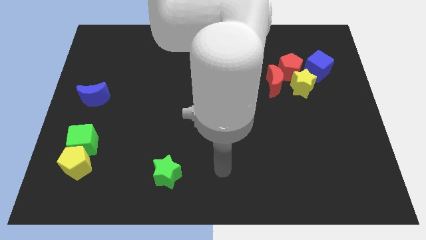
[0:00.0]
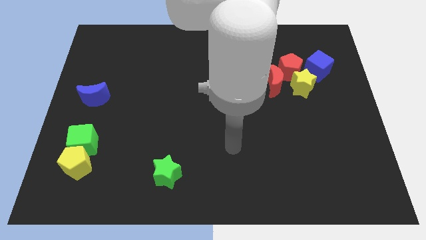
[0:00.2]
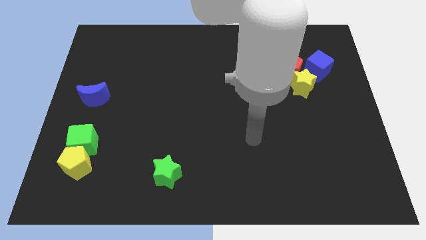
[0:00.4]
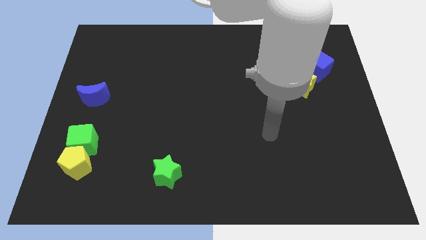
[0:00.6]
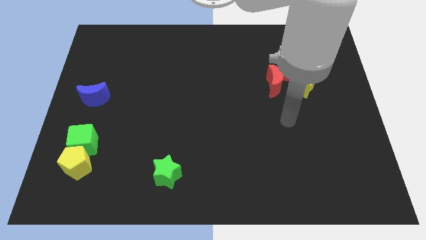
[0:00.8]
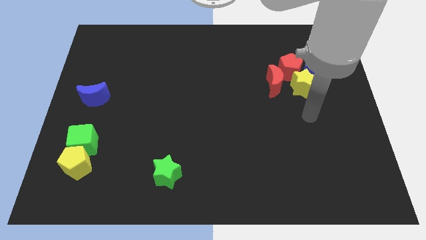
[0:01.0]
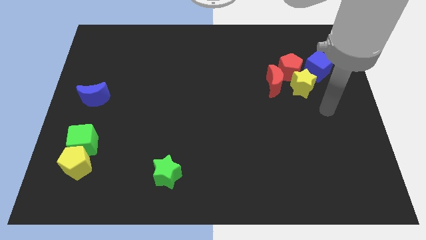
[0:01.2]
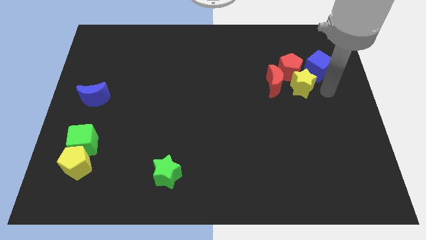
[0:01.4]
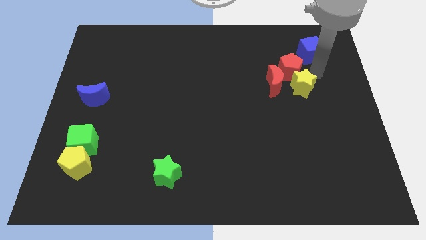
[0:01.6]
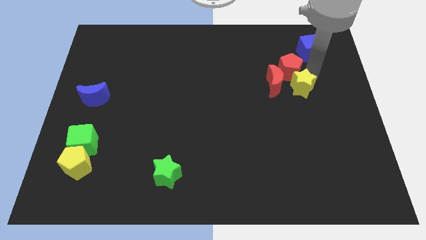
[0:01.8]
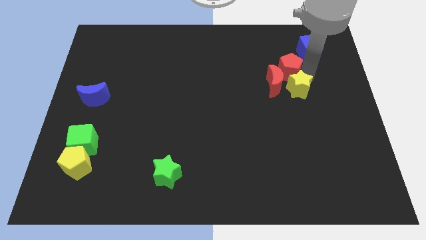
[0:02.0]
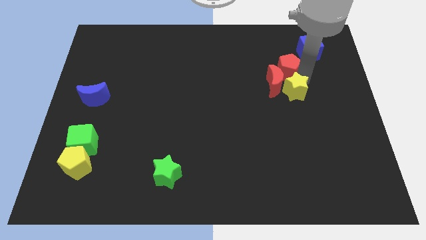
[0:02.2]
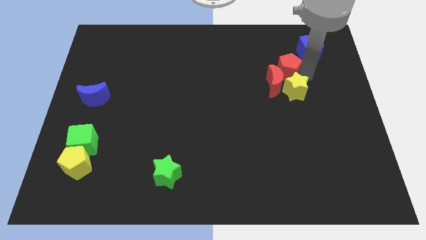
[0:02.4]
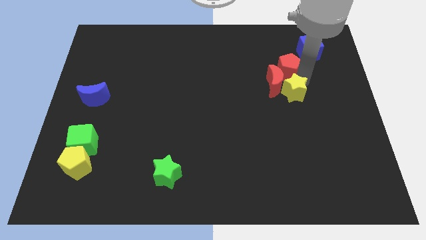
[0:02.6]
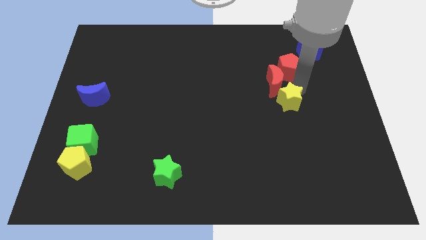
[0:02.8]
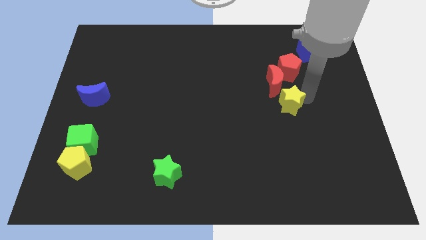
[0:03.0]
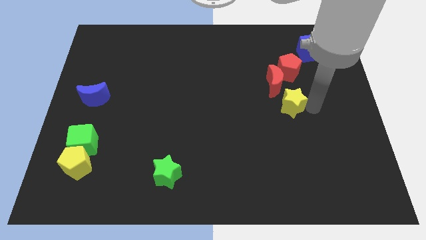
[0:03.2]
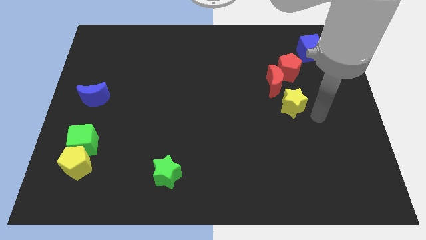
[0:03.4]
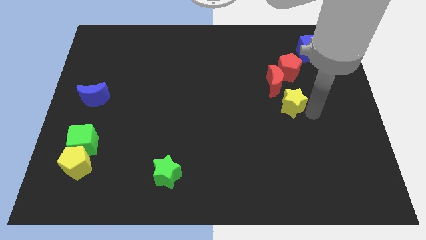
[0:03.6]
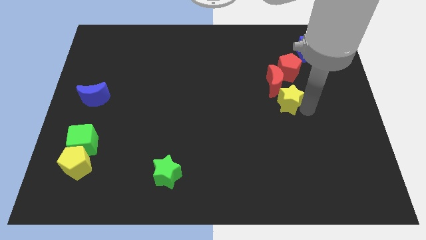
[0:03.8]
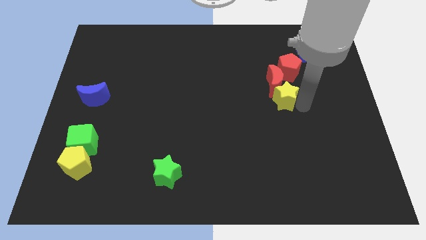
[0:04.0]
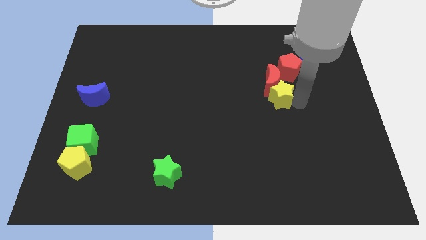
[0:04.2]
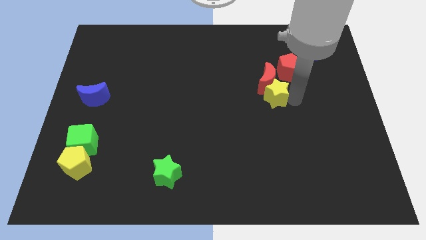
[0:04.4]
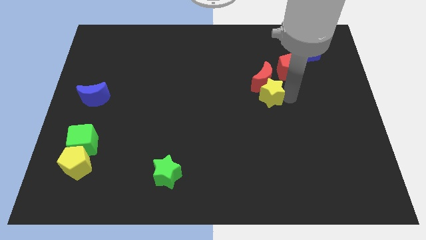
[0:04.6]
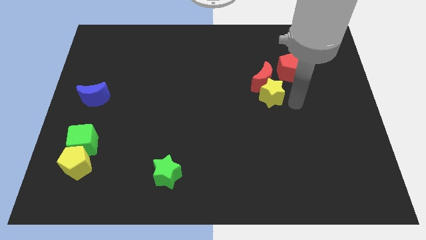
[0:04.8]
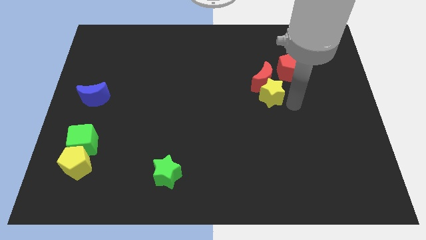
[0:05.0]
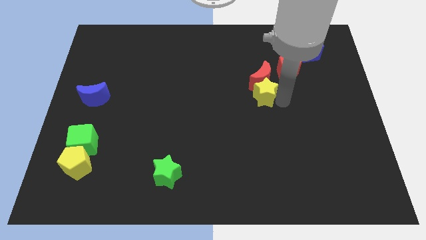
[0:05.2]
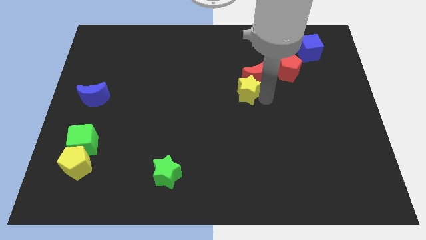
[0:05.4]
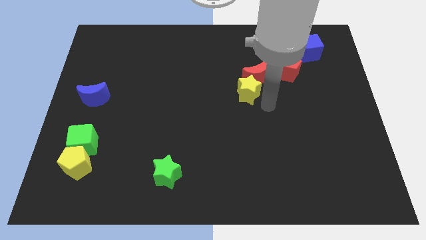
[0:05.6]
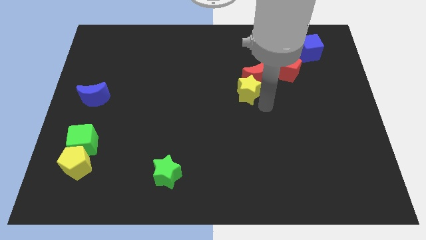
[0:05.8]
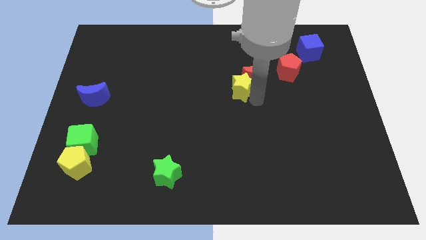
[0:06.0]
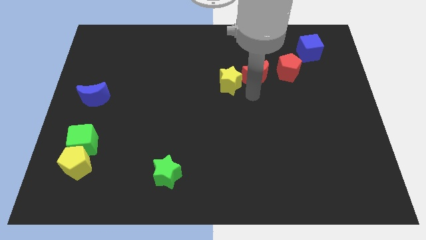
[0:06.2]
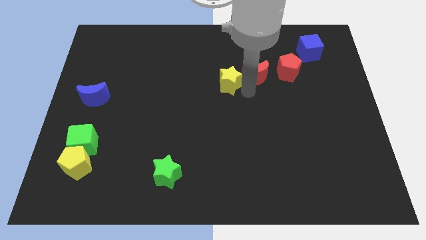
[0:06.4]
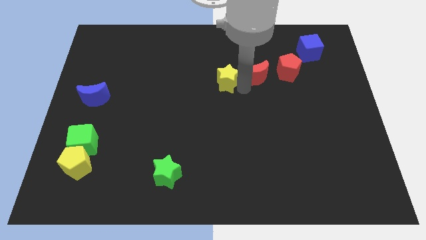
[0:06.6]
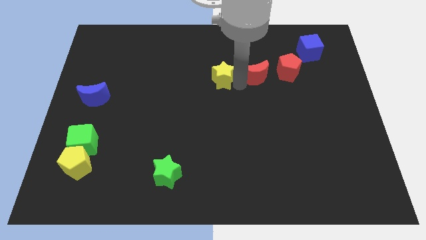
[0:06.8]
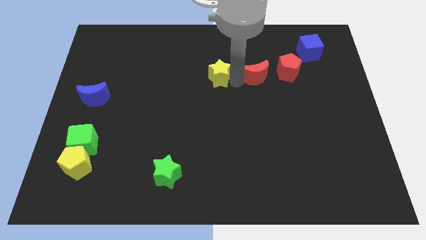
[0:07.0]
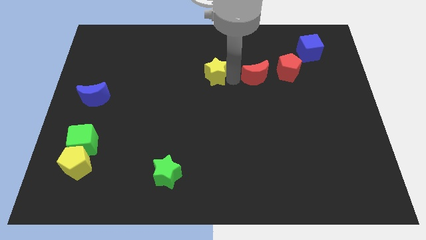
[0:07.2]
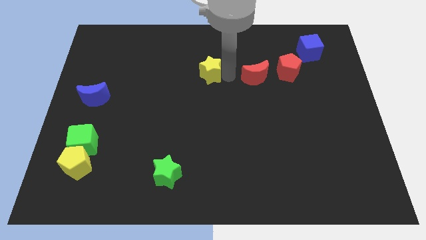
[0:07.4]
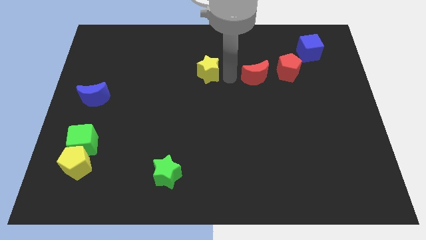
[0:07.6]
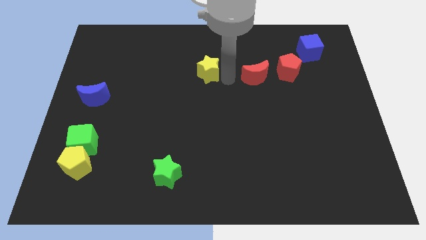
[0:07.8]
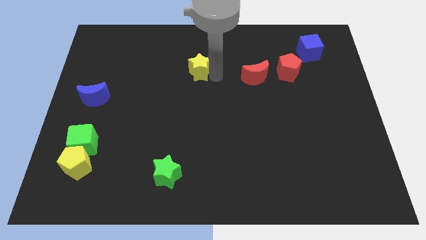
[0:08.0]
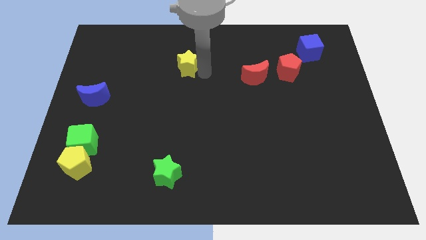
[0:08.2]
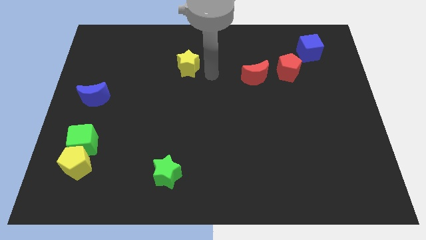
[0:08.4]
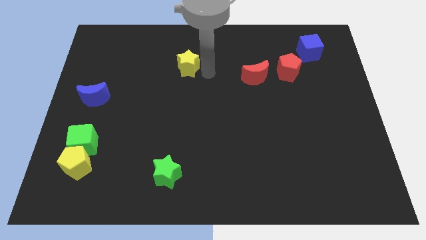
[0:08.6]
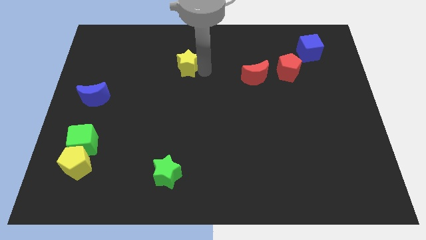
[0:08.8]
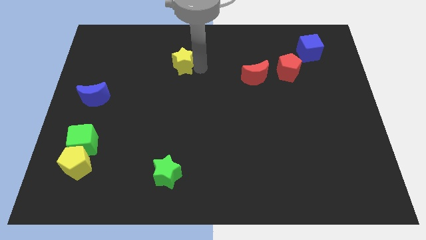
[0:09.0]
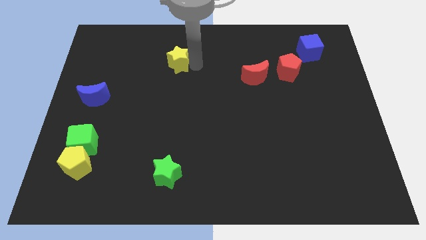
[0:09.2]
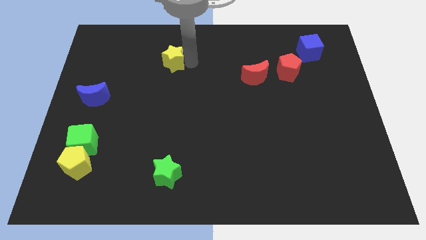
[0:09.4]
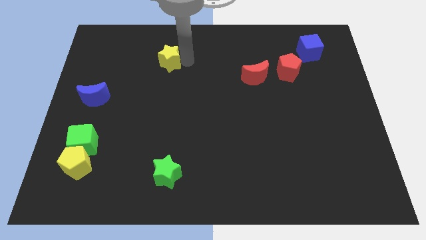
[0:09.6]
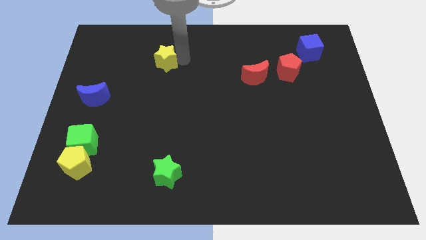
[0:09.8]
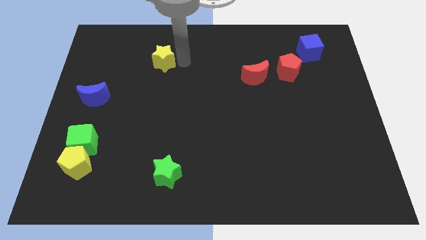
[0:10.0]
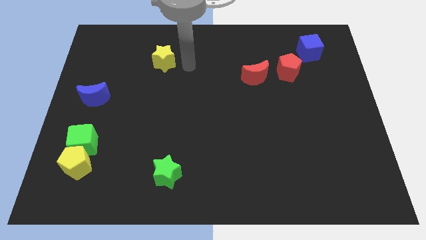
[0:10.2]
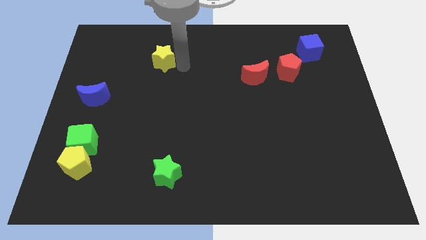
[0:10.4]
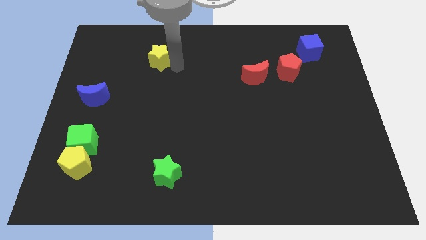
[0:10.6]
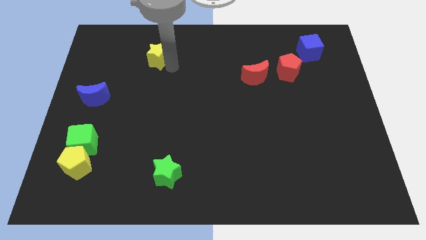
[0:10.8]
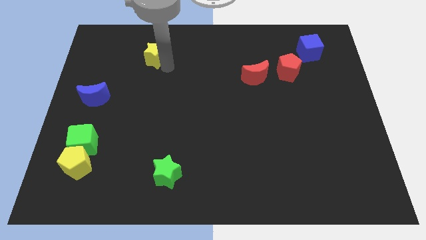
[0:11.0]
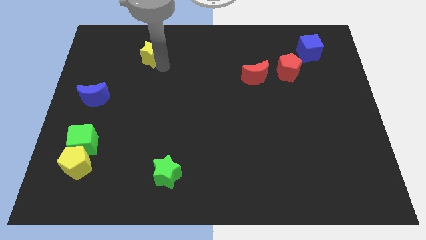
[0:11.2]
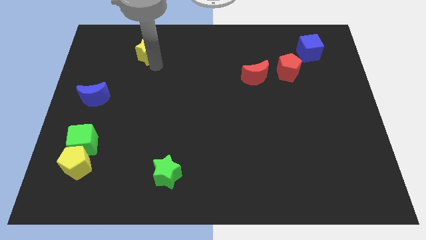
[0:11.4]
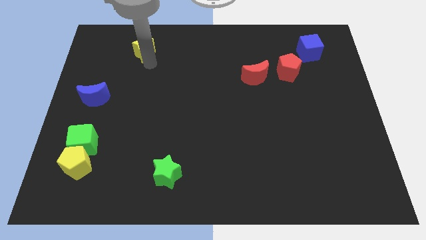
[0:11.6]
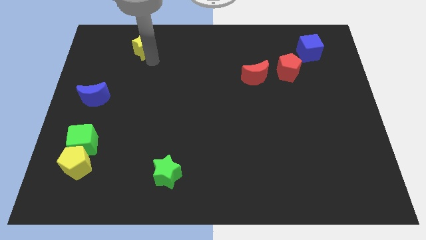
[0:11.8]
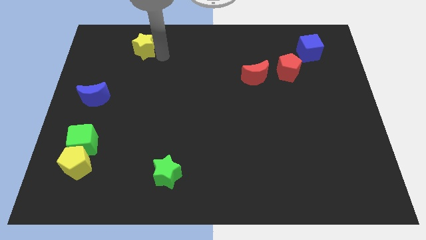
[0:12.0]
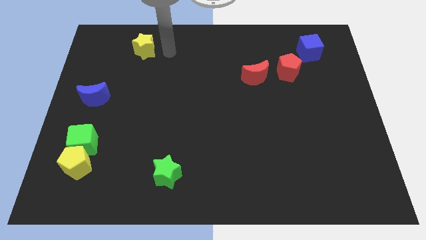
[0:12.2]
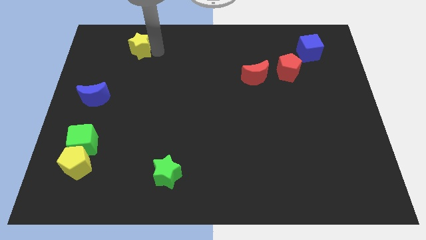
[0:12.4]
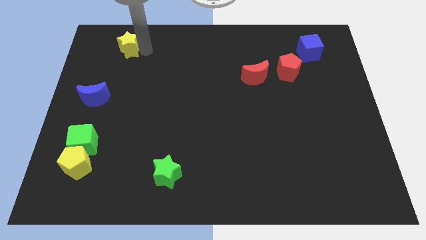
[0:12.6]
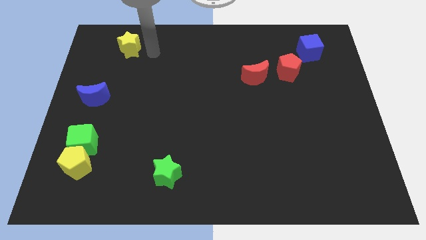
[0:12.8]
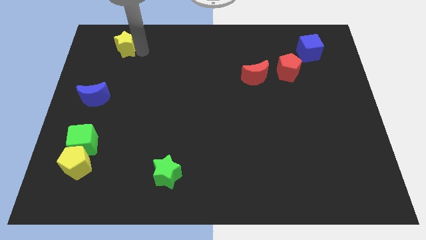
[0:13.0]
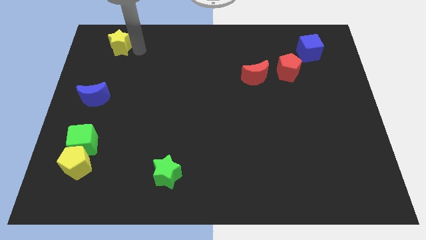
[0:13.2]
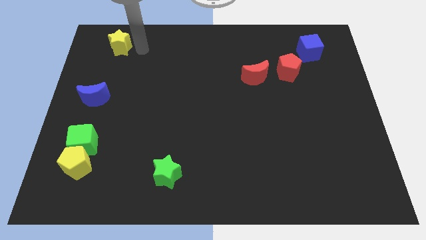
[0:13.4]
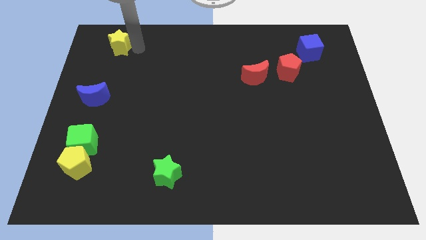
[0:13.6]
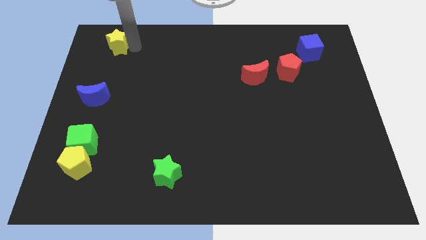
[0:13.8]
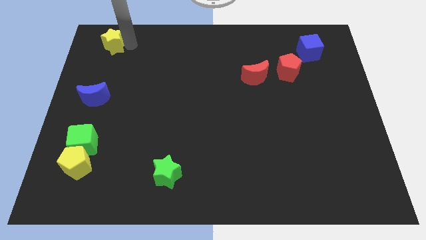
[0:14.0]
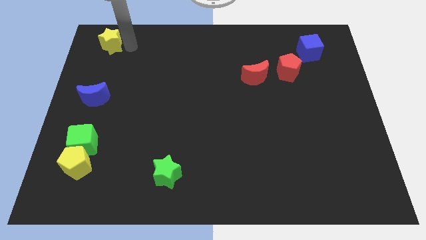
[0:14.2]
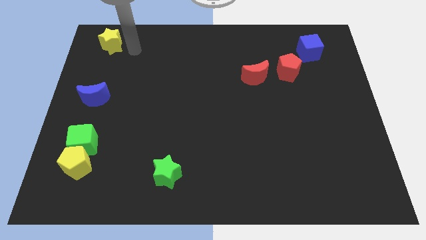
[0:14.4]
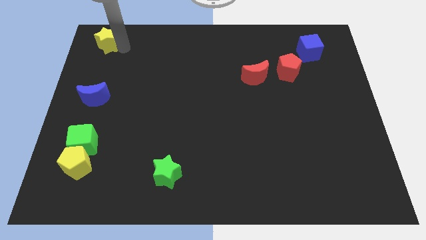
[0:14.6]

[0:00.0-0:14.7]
push the yellow star to the top left of the board
